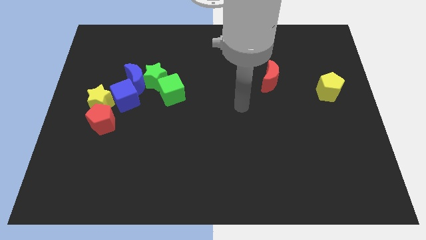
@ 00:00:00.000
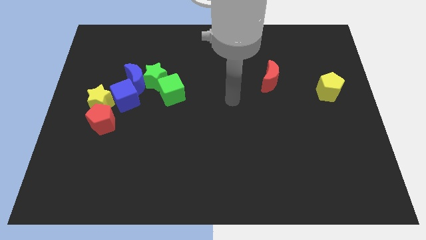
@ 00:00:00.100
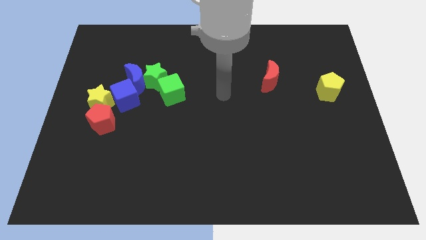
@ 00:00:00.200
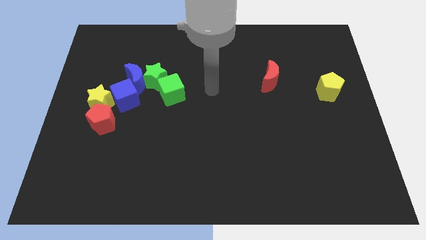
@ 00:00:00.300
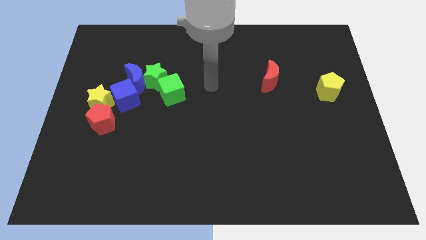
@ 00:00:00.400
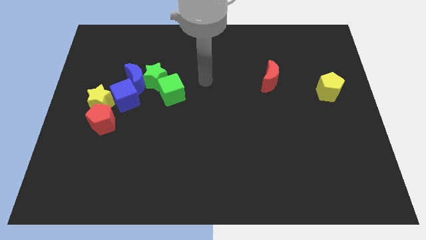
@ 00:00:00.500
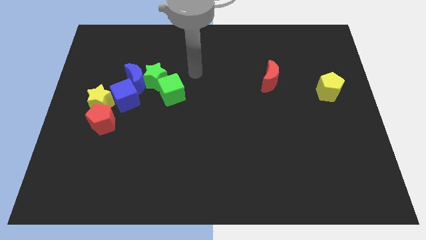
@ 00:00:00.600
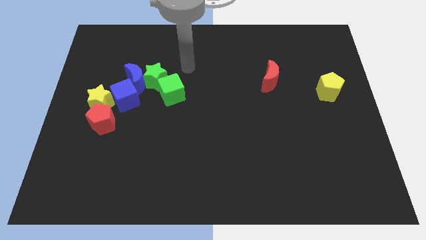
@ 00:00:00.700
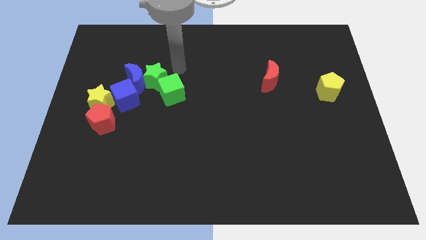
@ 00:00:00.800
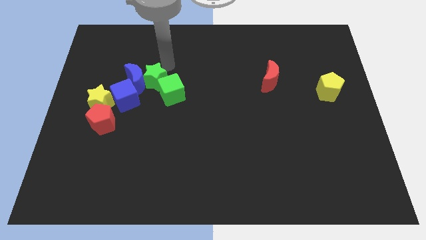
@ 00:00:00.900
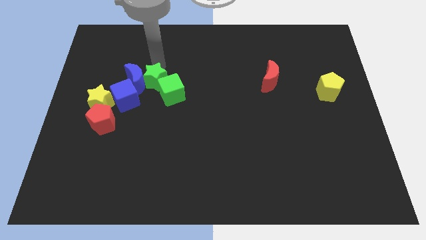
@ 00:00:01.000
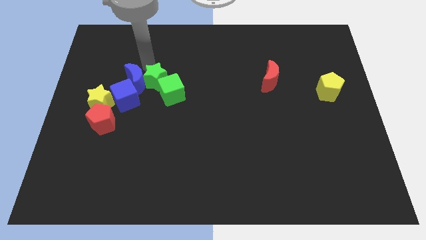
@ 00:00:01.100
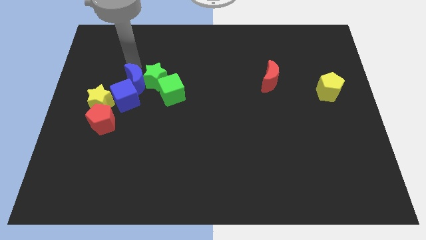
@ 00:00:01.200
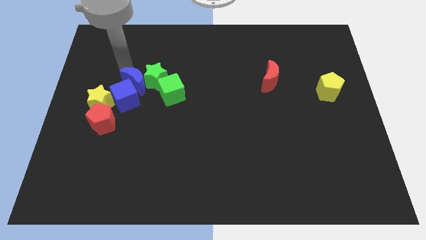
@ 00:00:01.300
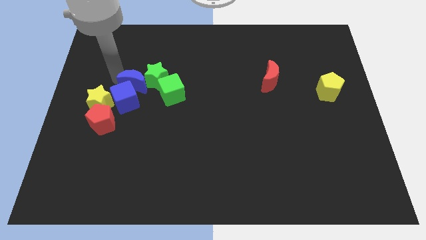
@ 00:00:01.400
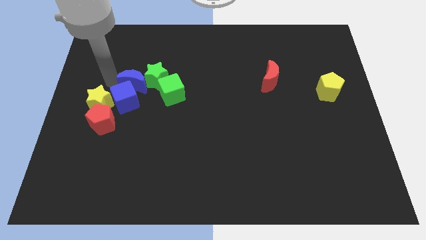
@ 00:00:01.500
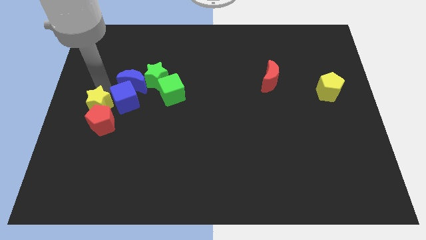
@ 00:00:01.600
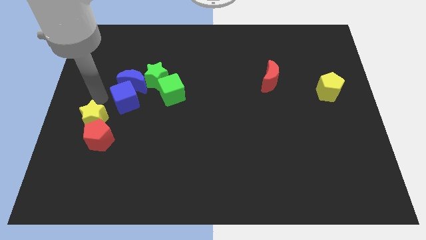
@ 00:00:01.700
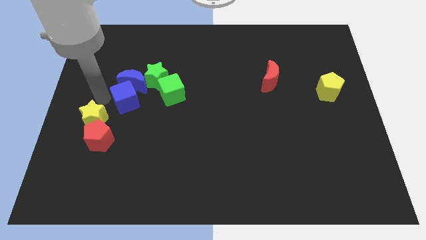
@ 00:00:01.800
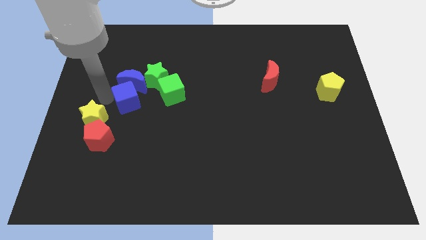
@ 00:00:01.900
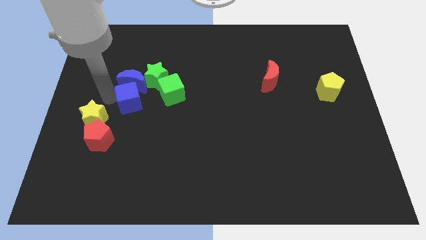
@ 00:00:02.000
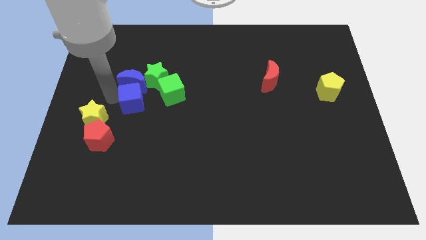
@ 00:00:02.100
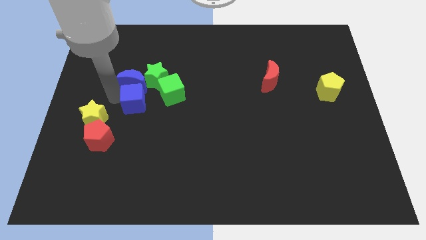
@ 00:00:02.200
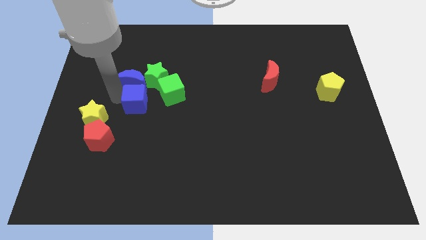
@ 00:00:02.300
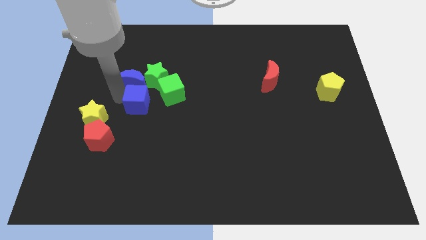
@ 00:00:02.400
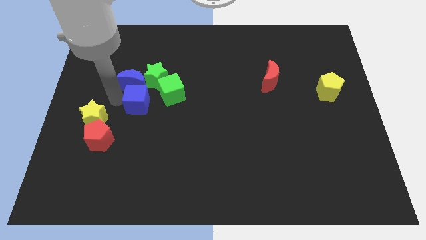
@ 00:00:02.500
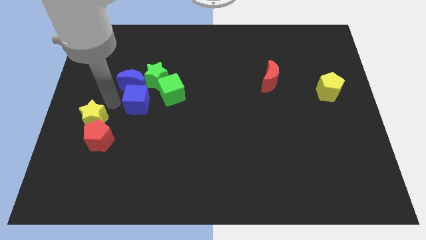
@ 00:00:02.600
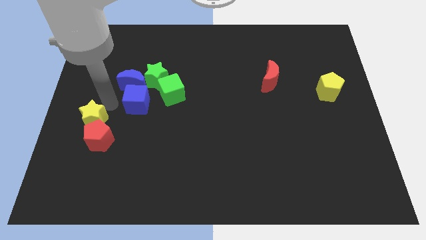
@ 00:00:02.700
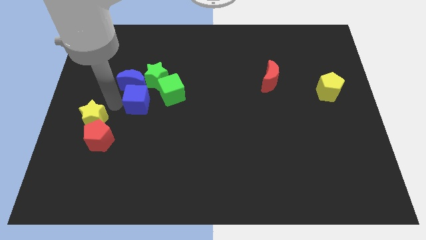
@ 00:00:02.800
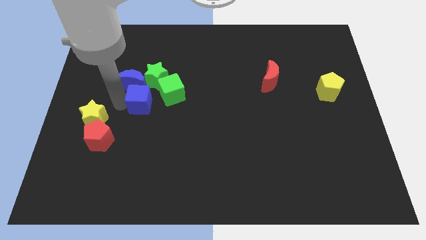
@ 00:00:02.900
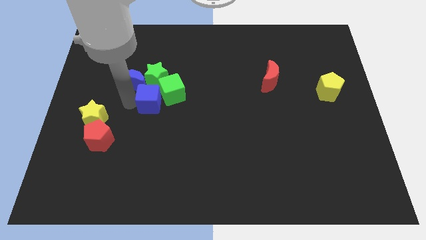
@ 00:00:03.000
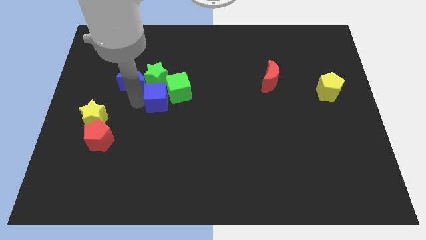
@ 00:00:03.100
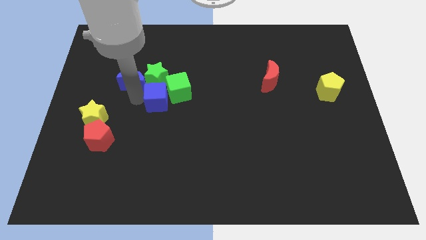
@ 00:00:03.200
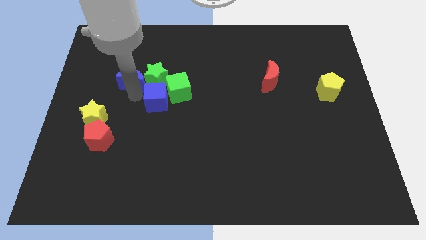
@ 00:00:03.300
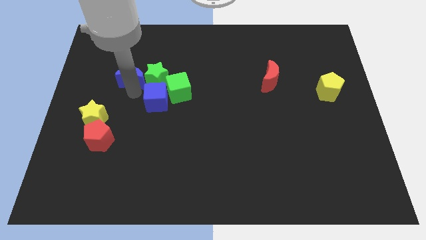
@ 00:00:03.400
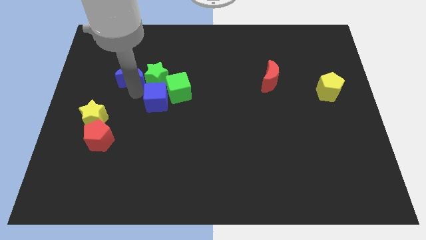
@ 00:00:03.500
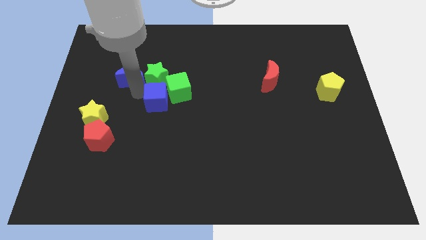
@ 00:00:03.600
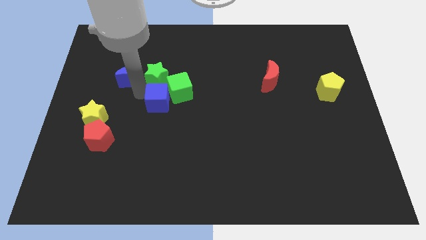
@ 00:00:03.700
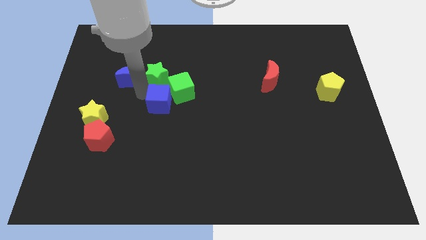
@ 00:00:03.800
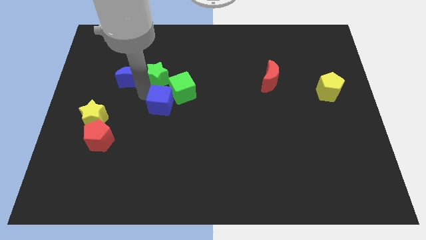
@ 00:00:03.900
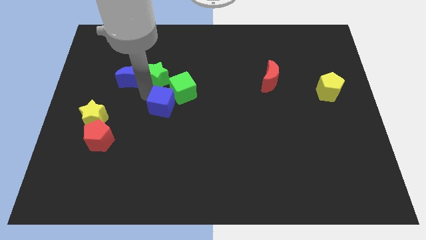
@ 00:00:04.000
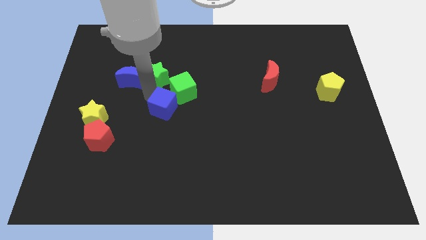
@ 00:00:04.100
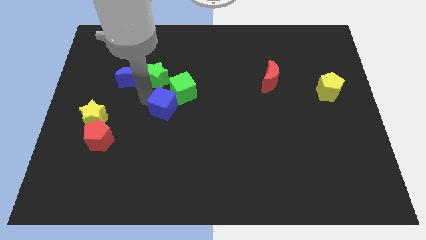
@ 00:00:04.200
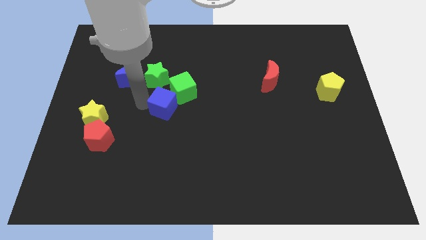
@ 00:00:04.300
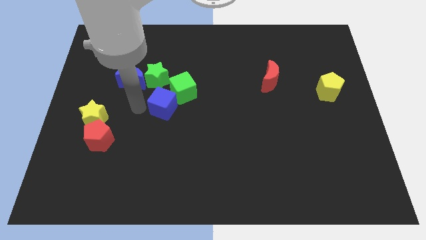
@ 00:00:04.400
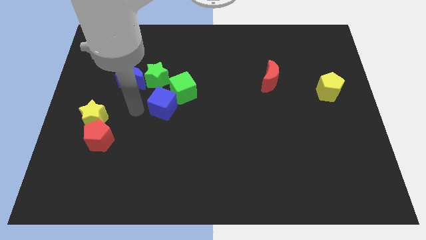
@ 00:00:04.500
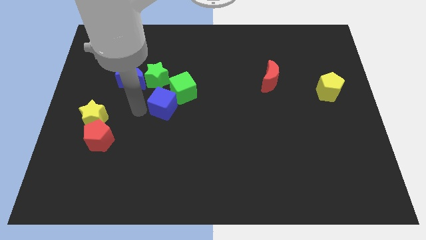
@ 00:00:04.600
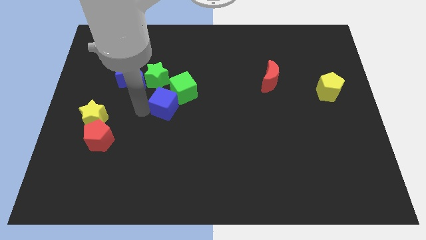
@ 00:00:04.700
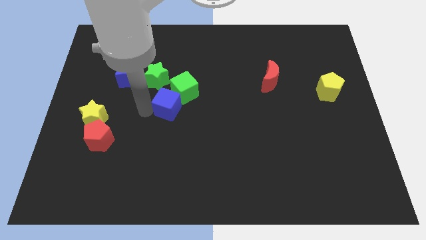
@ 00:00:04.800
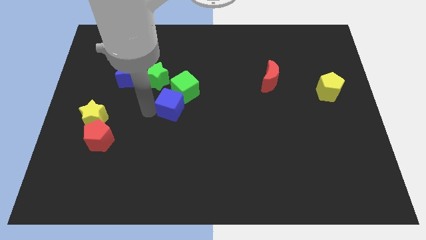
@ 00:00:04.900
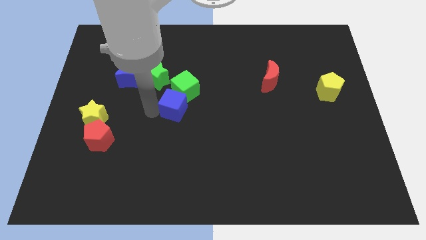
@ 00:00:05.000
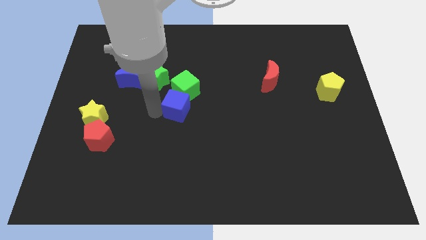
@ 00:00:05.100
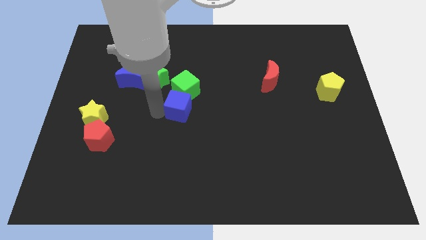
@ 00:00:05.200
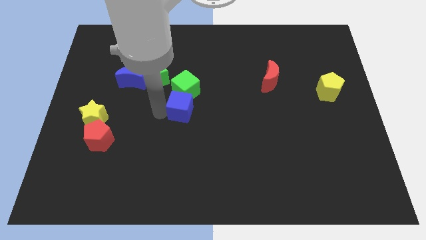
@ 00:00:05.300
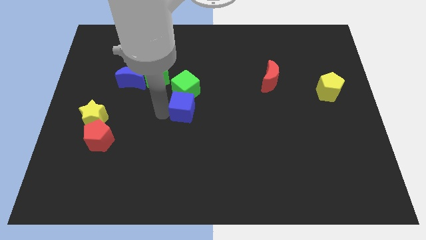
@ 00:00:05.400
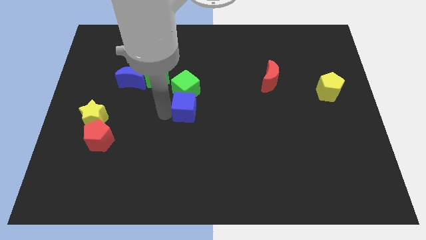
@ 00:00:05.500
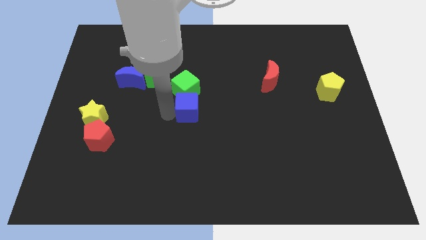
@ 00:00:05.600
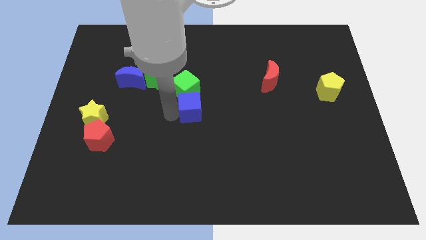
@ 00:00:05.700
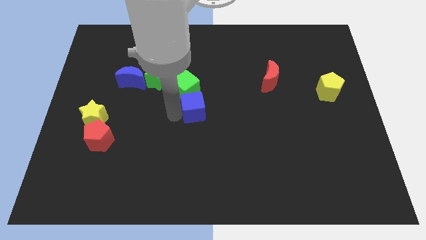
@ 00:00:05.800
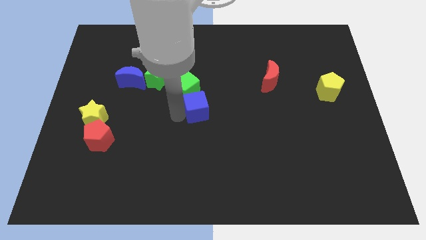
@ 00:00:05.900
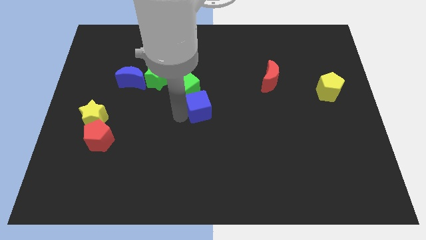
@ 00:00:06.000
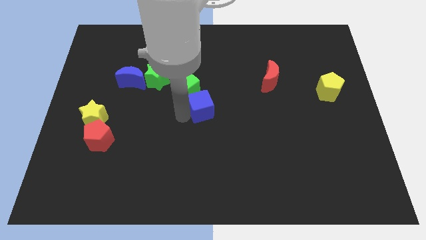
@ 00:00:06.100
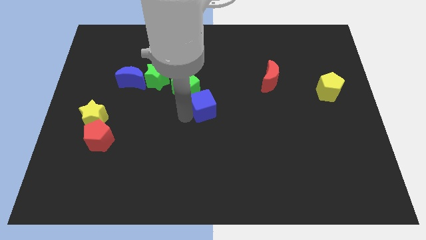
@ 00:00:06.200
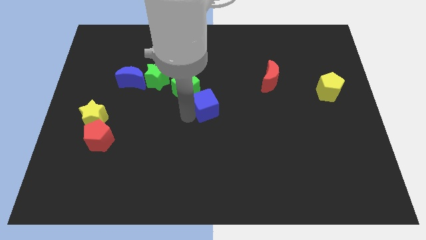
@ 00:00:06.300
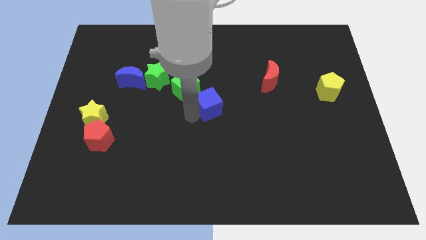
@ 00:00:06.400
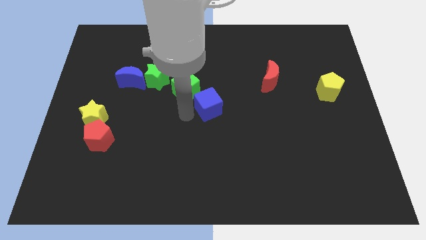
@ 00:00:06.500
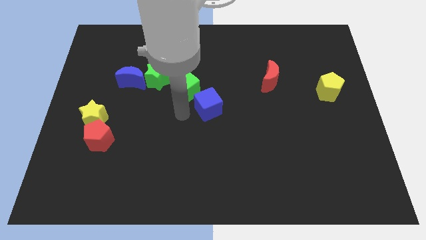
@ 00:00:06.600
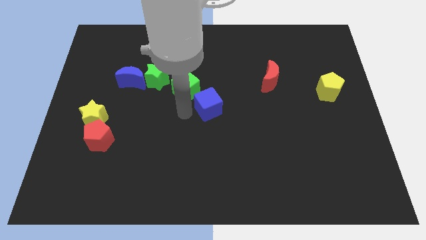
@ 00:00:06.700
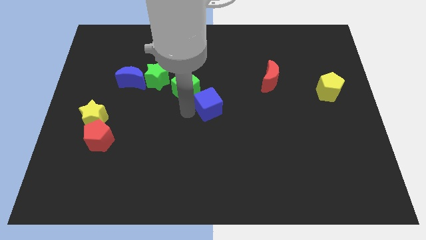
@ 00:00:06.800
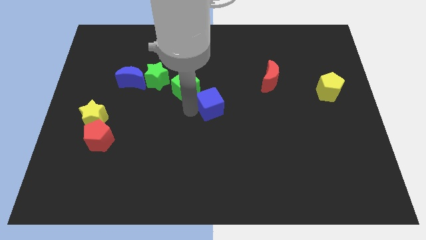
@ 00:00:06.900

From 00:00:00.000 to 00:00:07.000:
move the blue cube right

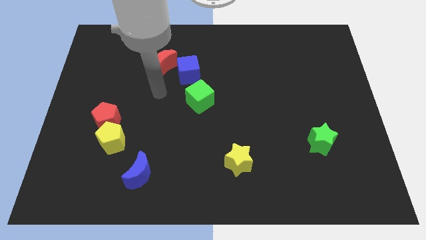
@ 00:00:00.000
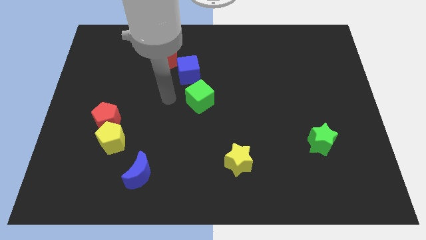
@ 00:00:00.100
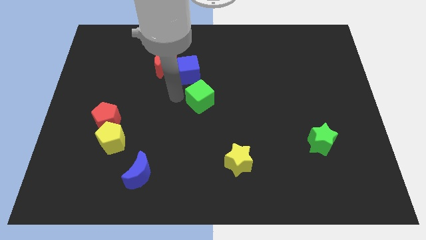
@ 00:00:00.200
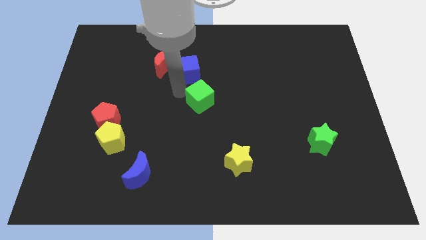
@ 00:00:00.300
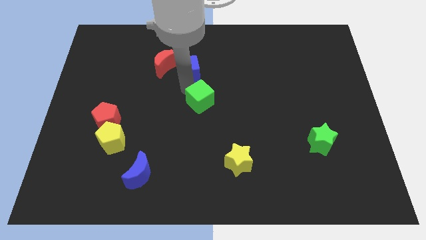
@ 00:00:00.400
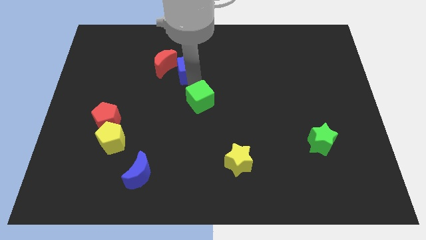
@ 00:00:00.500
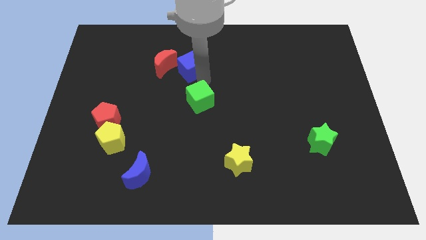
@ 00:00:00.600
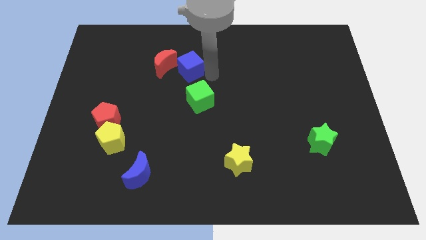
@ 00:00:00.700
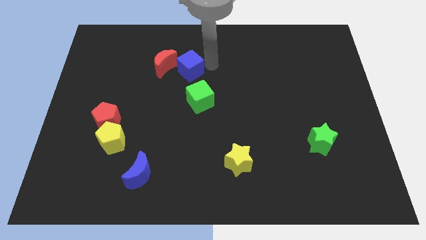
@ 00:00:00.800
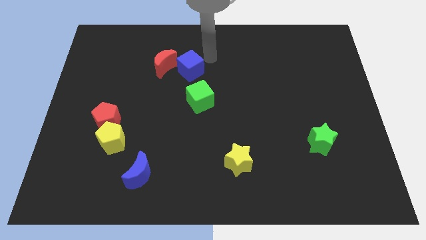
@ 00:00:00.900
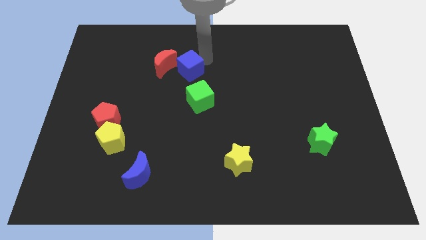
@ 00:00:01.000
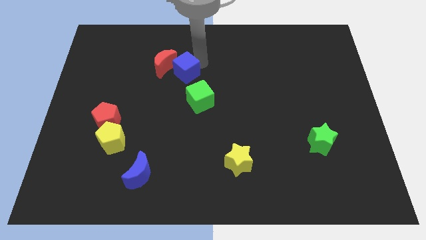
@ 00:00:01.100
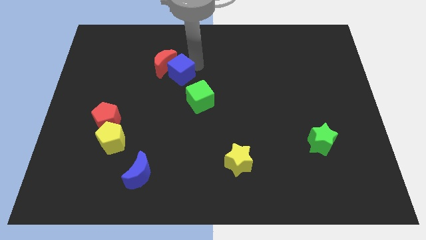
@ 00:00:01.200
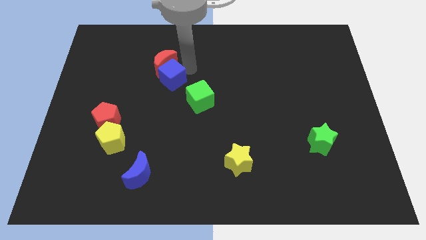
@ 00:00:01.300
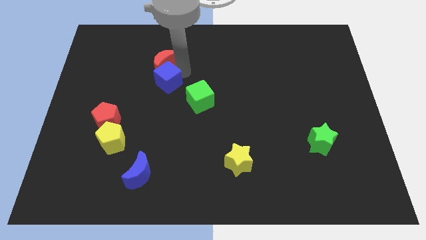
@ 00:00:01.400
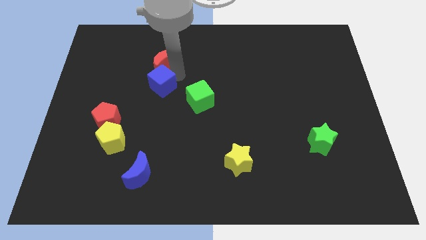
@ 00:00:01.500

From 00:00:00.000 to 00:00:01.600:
slide the blue cube diagonally down and to the left somewhat
